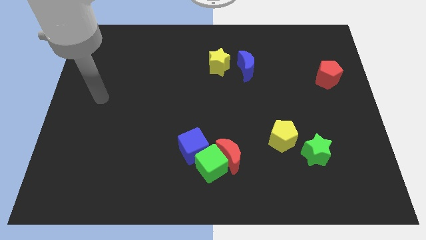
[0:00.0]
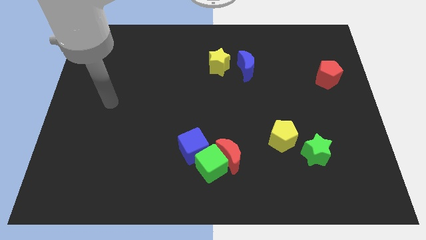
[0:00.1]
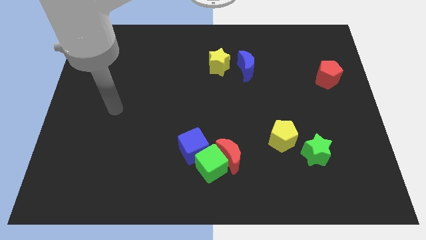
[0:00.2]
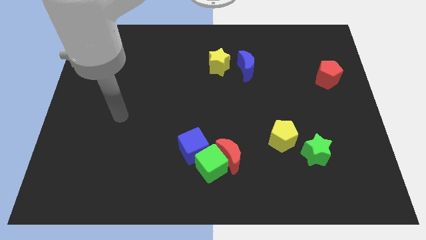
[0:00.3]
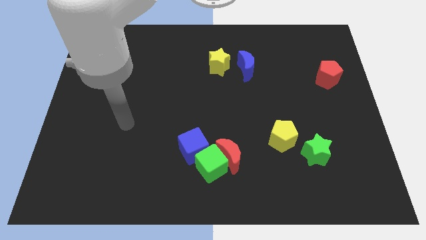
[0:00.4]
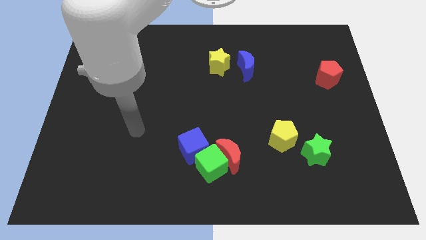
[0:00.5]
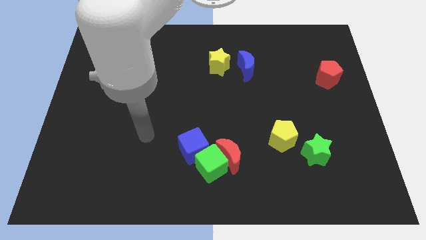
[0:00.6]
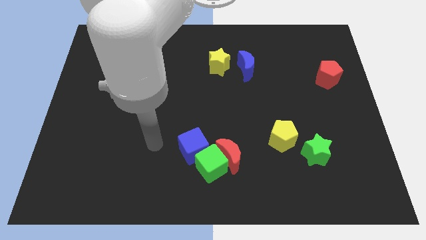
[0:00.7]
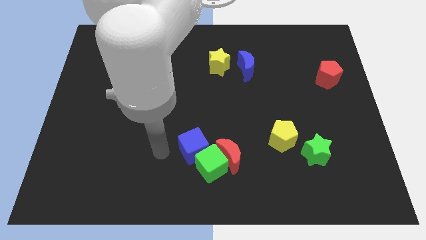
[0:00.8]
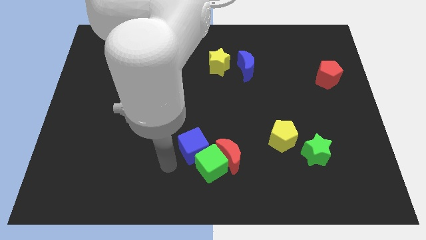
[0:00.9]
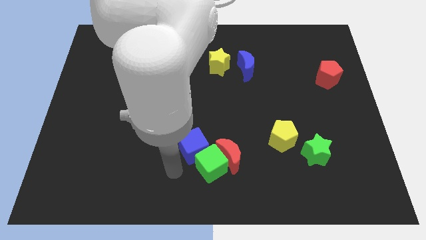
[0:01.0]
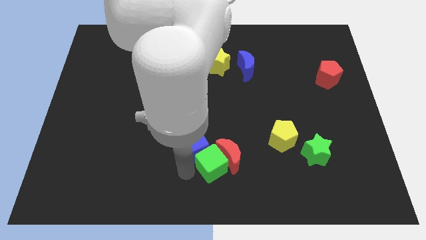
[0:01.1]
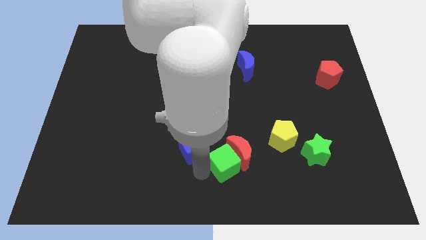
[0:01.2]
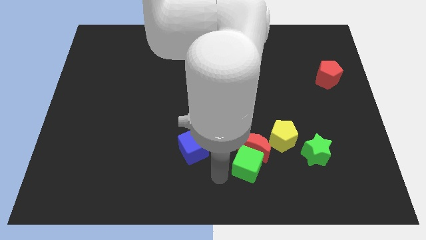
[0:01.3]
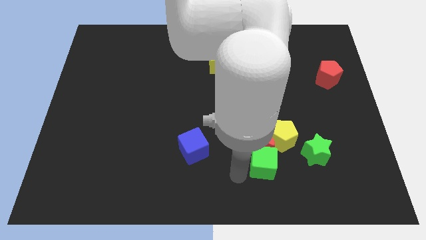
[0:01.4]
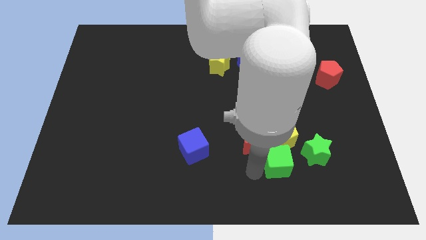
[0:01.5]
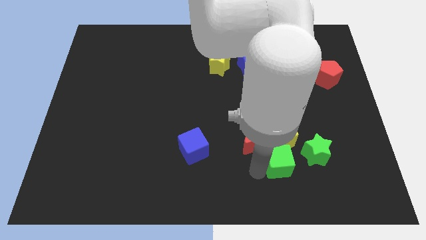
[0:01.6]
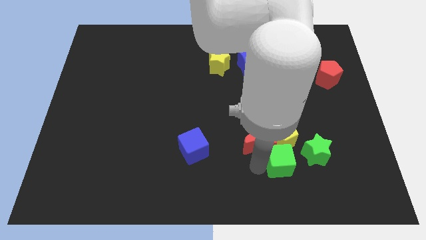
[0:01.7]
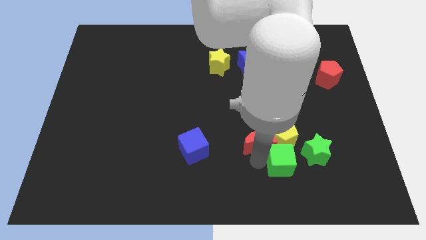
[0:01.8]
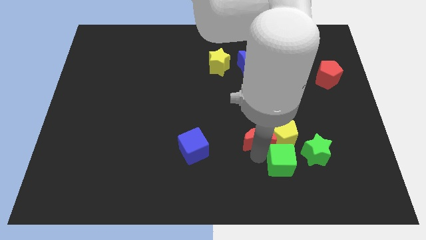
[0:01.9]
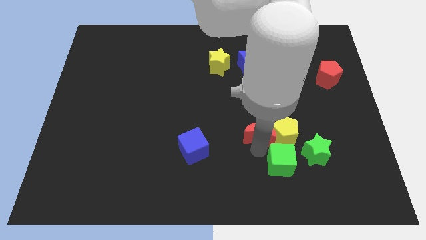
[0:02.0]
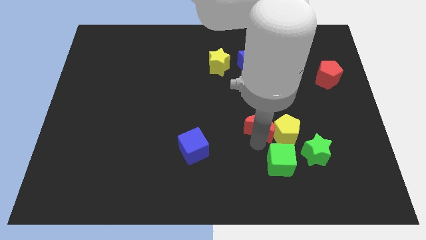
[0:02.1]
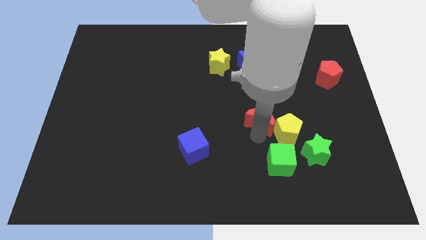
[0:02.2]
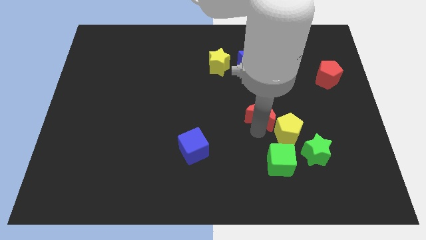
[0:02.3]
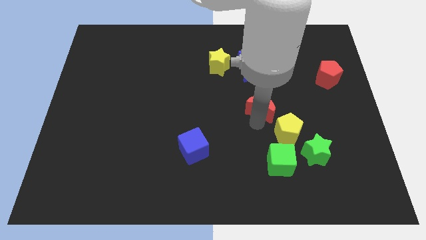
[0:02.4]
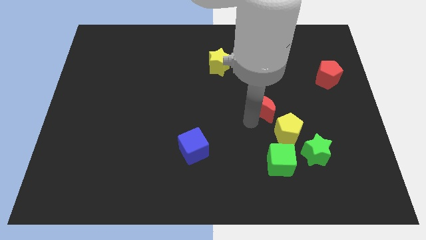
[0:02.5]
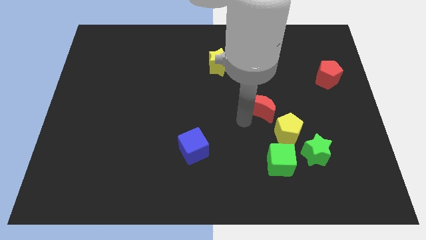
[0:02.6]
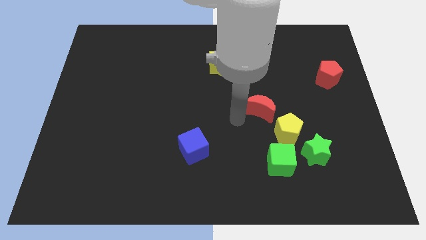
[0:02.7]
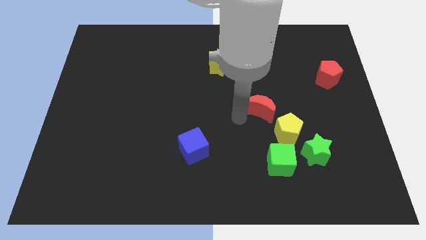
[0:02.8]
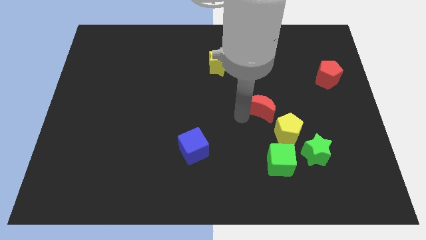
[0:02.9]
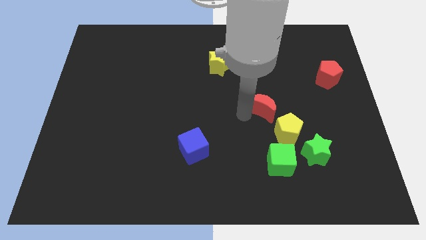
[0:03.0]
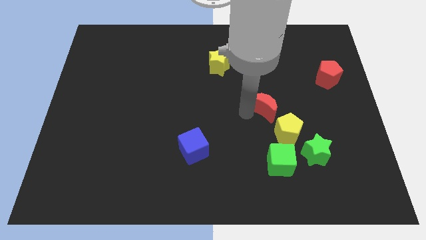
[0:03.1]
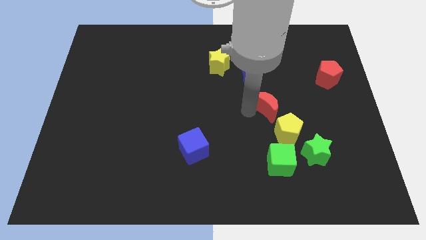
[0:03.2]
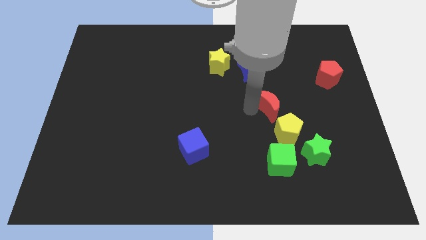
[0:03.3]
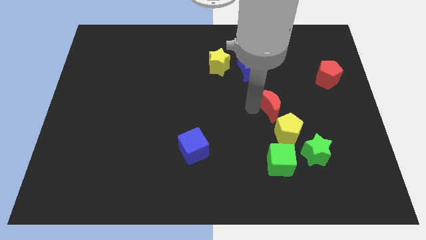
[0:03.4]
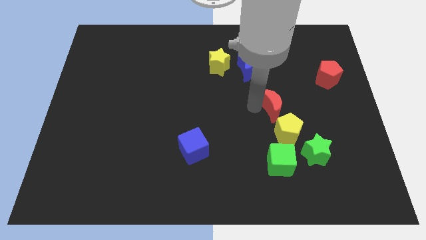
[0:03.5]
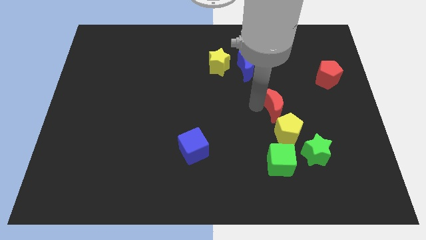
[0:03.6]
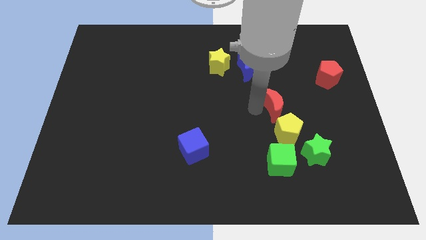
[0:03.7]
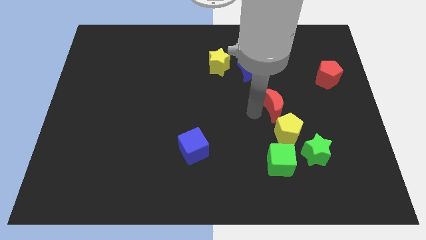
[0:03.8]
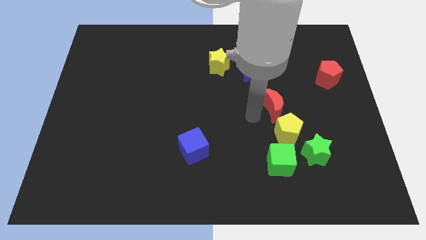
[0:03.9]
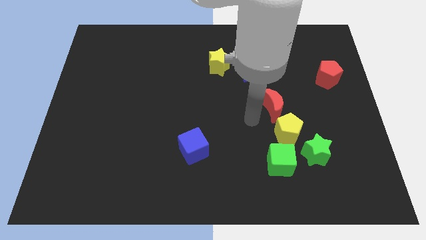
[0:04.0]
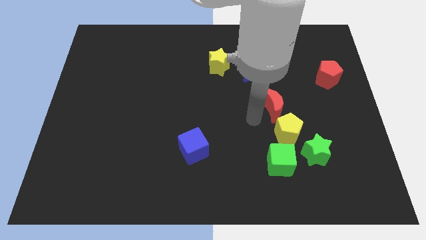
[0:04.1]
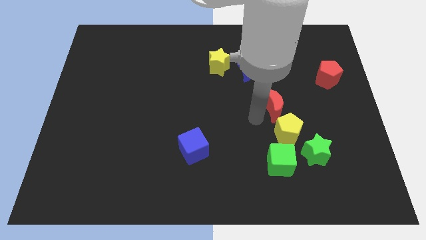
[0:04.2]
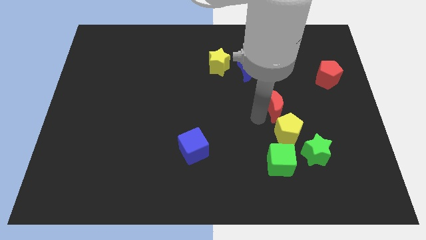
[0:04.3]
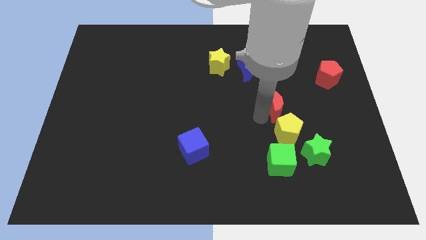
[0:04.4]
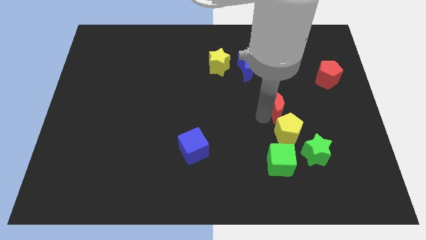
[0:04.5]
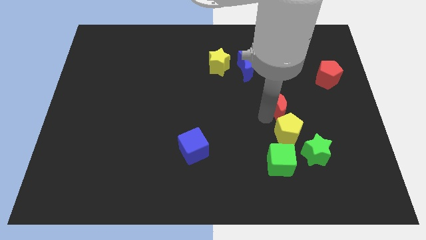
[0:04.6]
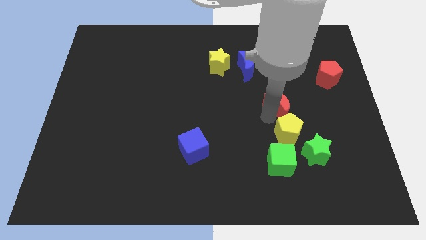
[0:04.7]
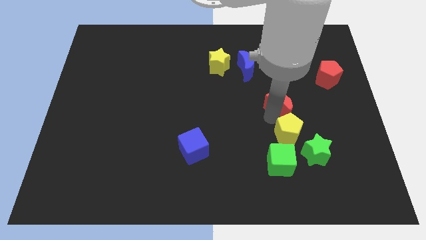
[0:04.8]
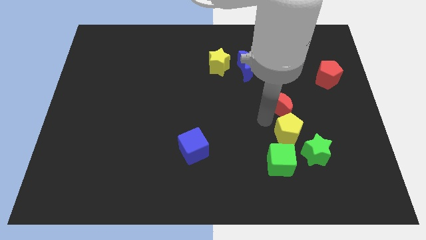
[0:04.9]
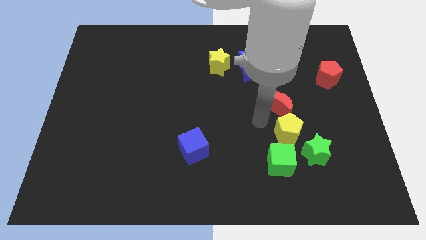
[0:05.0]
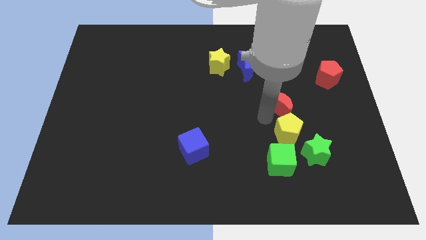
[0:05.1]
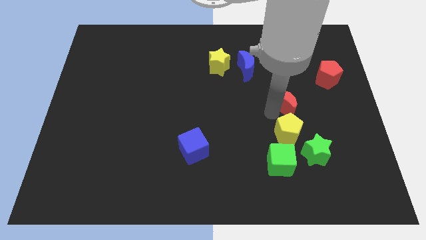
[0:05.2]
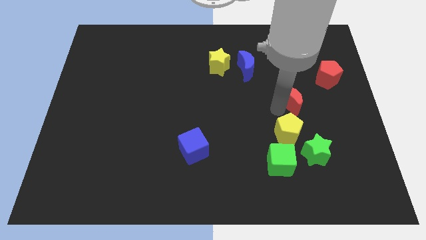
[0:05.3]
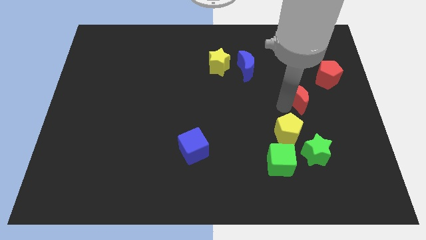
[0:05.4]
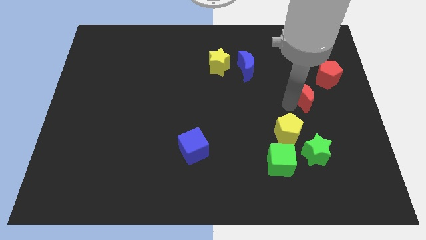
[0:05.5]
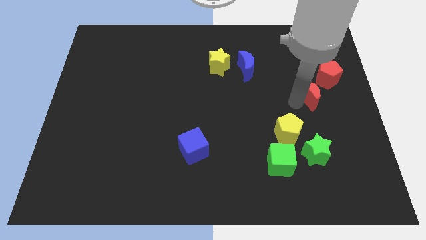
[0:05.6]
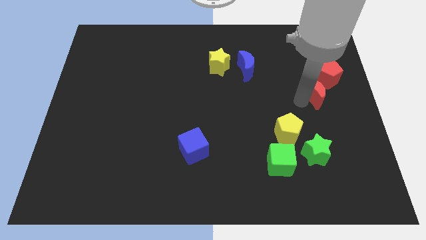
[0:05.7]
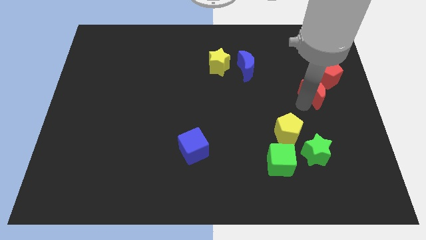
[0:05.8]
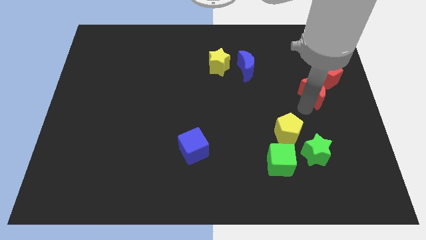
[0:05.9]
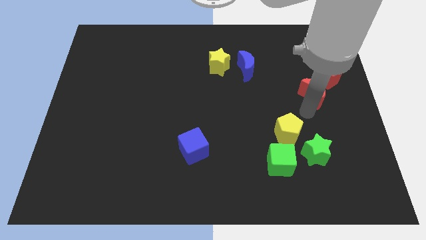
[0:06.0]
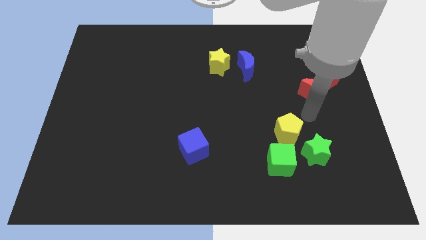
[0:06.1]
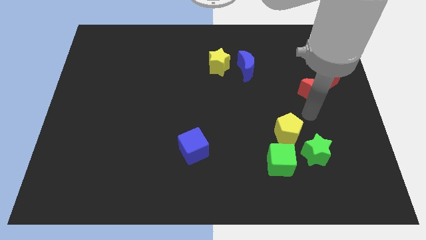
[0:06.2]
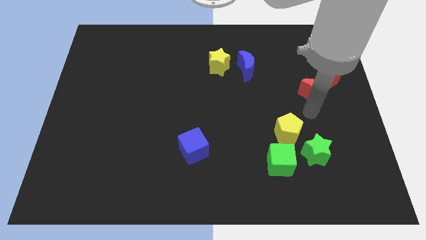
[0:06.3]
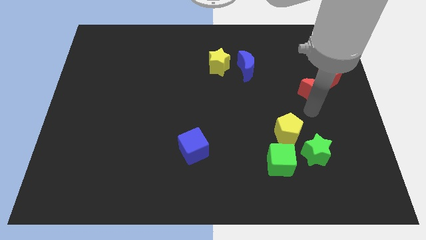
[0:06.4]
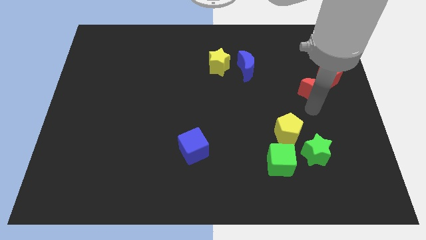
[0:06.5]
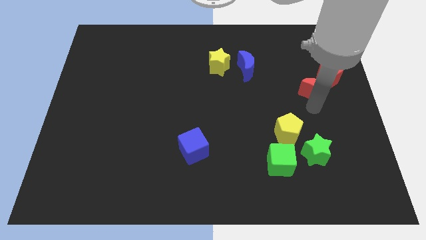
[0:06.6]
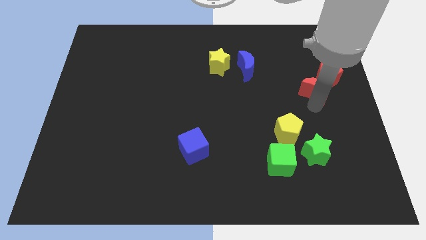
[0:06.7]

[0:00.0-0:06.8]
slide the red moon towards the red pentagon

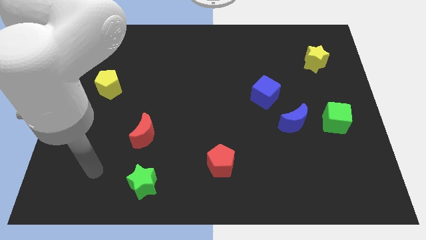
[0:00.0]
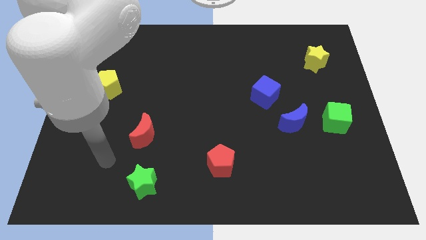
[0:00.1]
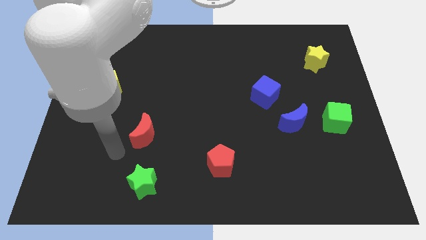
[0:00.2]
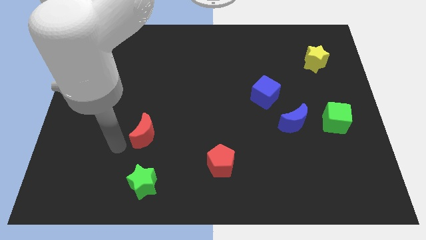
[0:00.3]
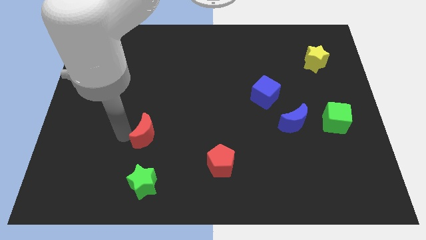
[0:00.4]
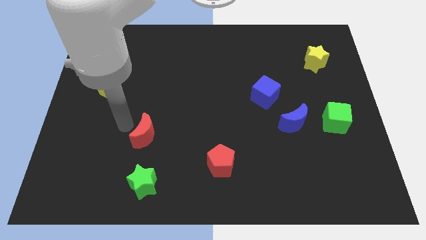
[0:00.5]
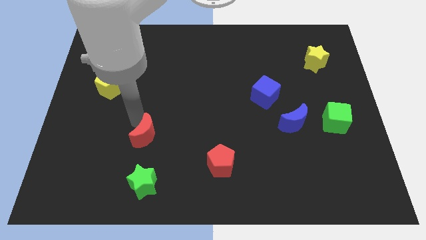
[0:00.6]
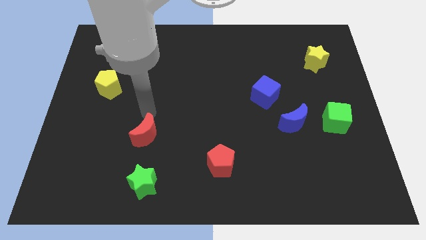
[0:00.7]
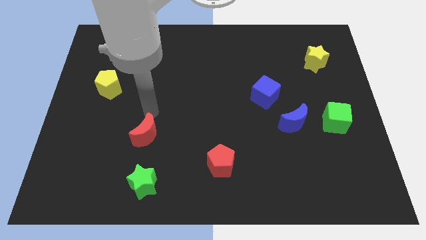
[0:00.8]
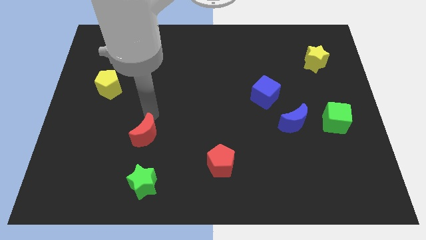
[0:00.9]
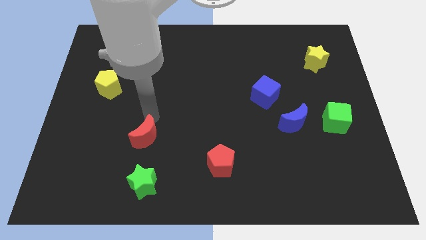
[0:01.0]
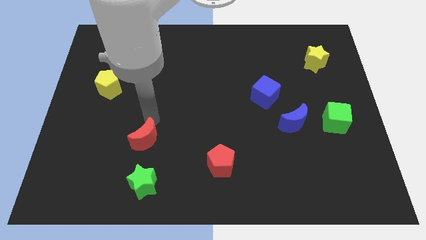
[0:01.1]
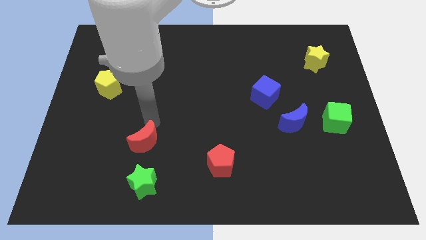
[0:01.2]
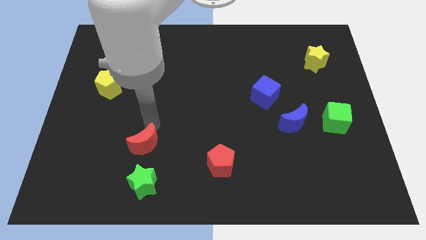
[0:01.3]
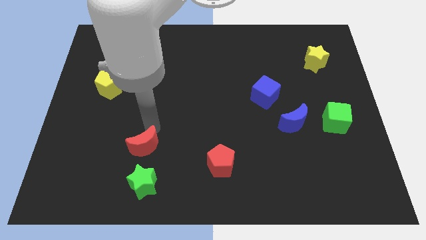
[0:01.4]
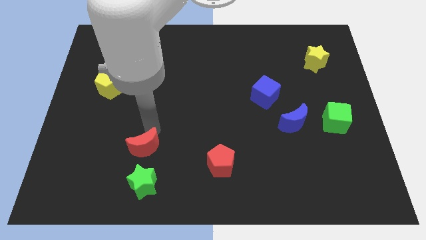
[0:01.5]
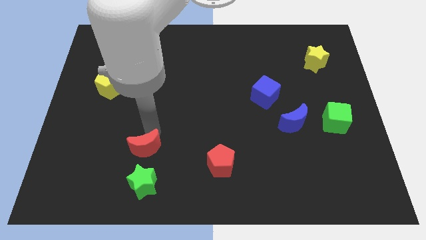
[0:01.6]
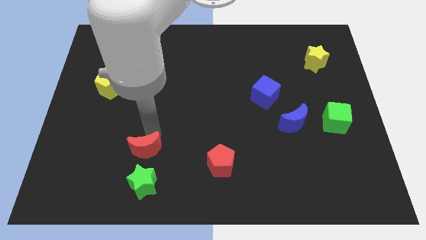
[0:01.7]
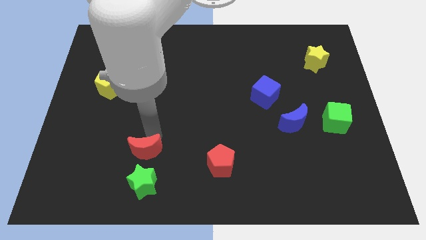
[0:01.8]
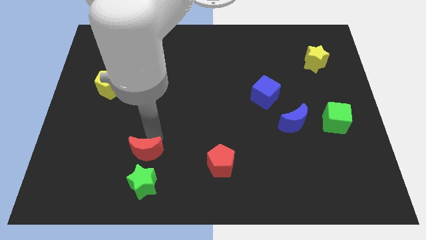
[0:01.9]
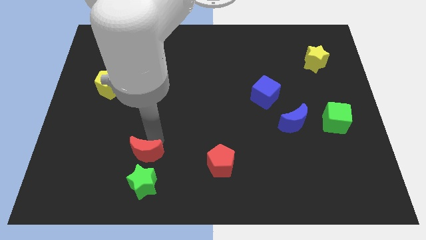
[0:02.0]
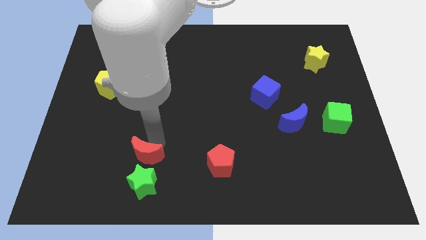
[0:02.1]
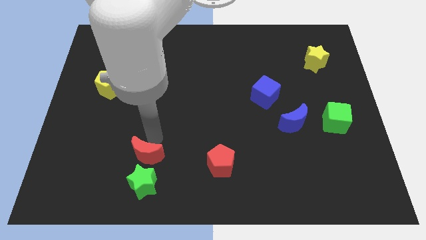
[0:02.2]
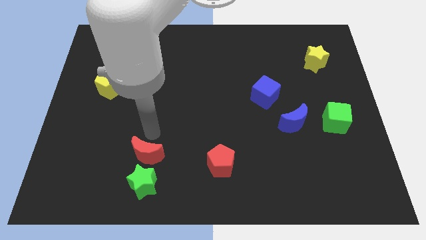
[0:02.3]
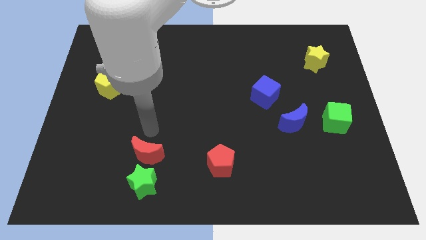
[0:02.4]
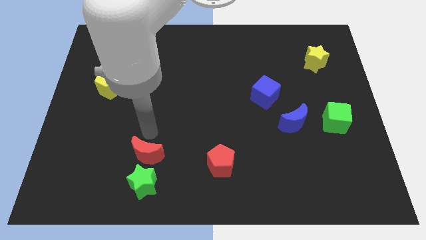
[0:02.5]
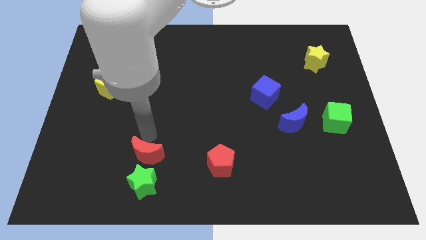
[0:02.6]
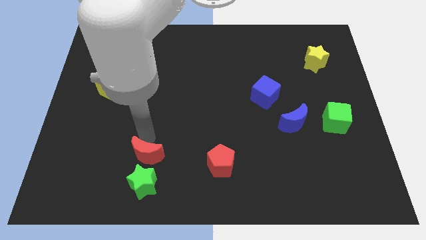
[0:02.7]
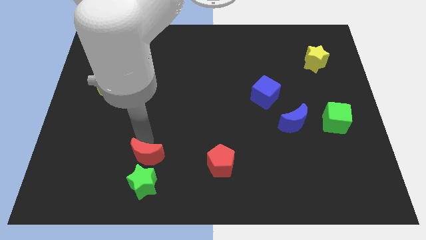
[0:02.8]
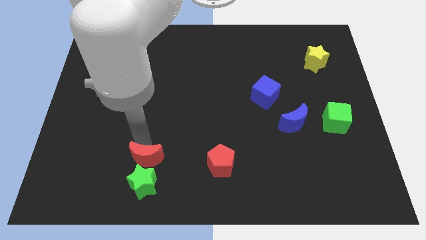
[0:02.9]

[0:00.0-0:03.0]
push the red moon next to the green star
